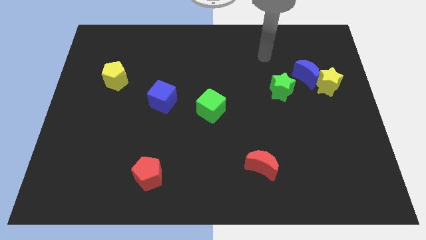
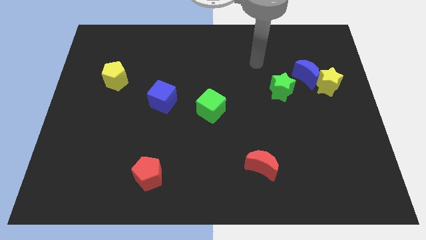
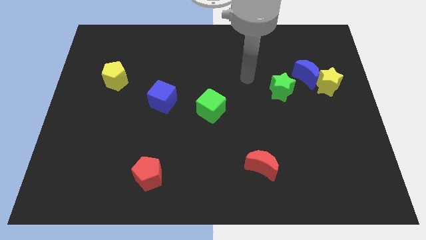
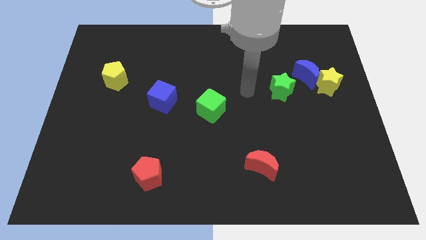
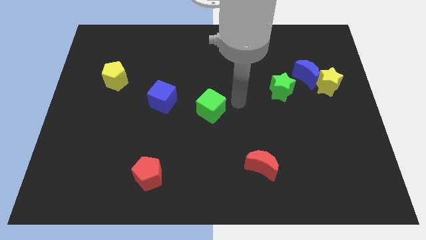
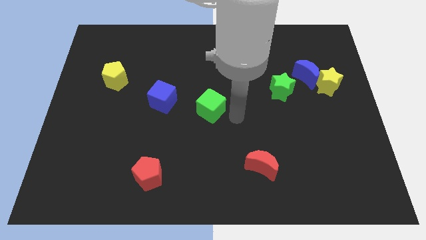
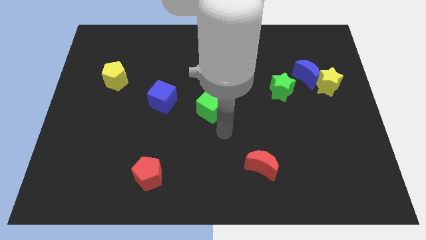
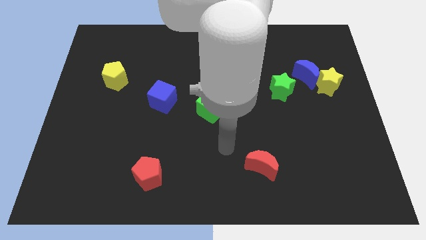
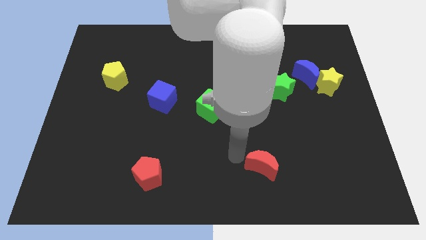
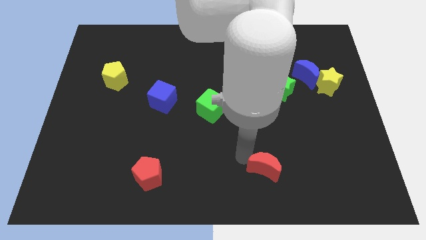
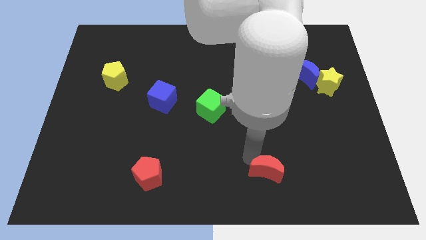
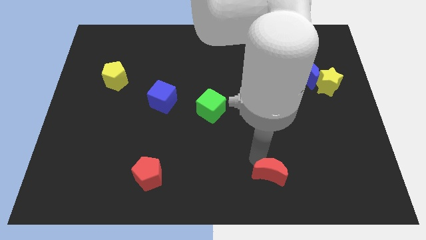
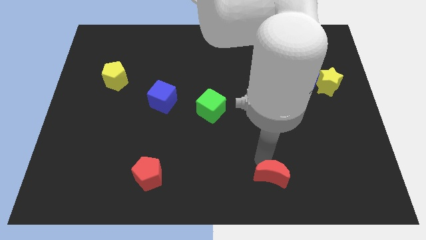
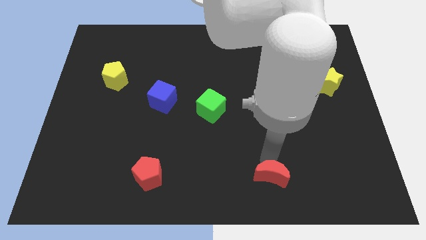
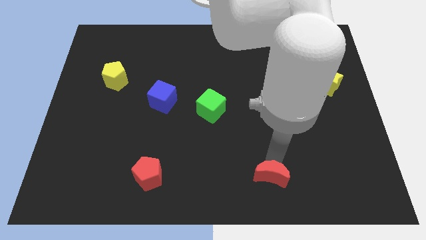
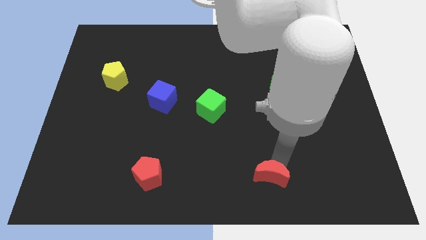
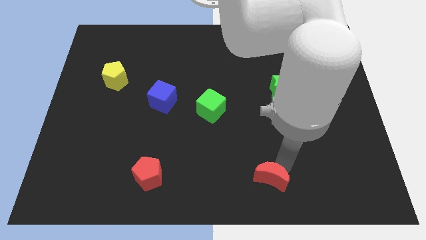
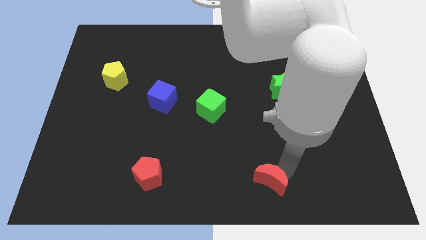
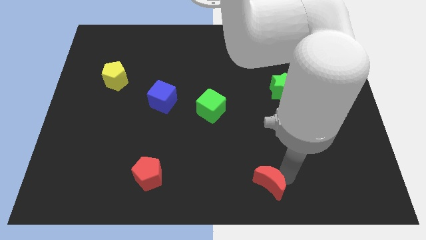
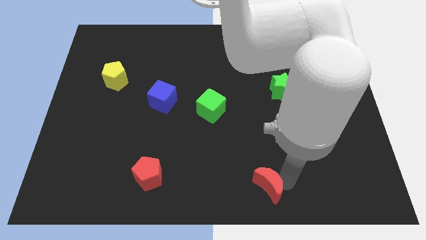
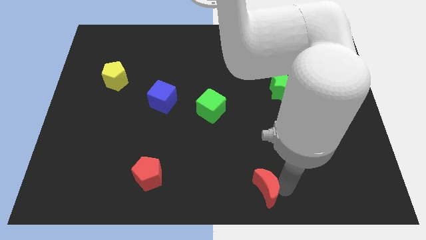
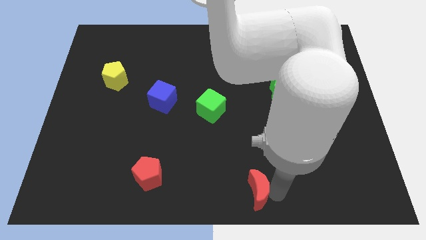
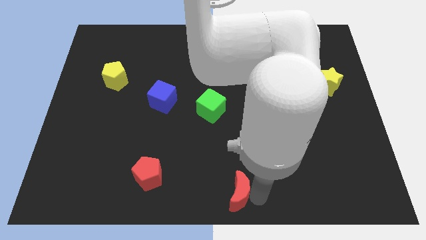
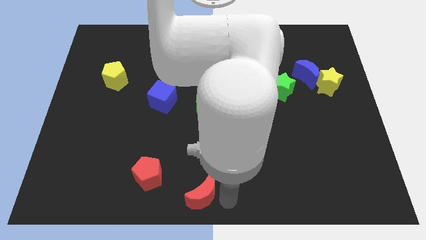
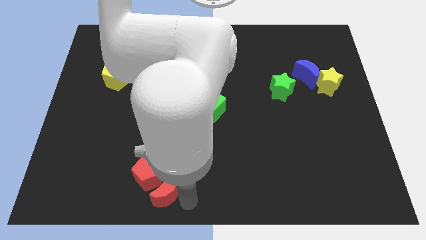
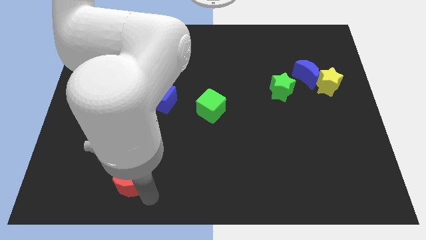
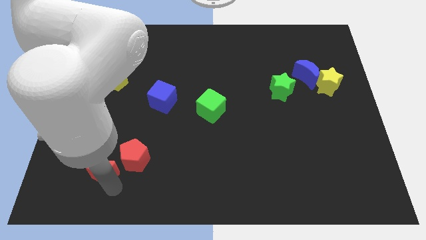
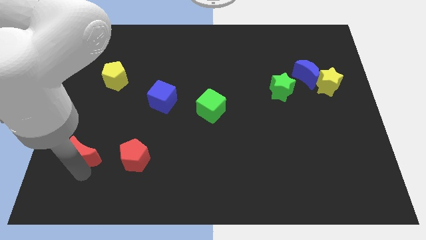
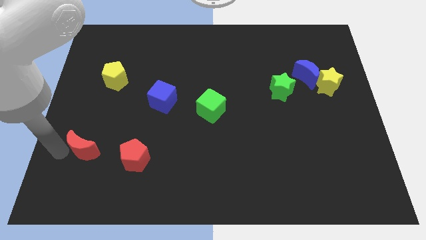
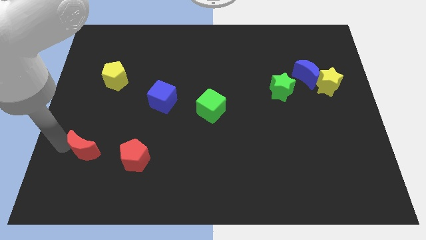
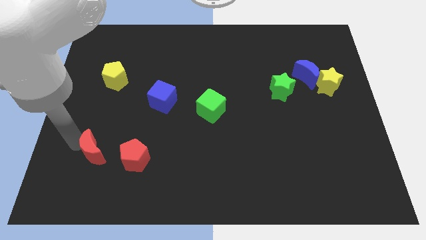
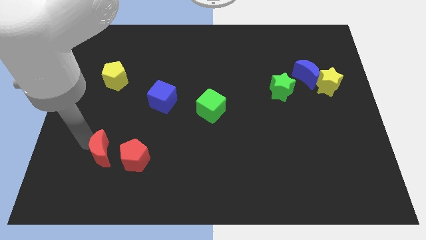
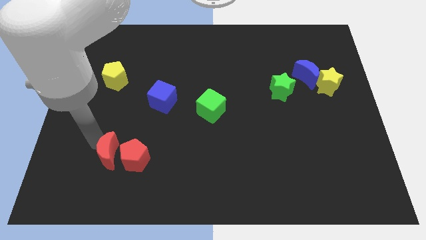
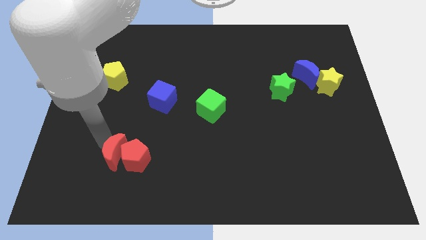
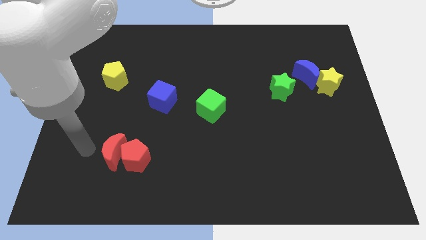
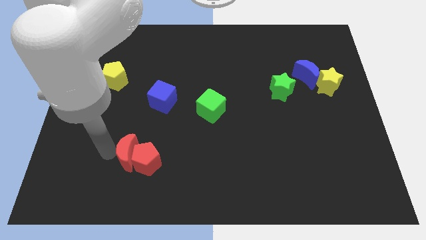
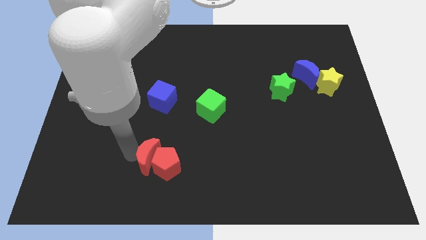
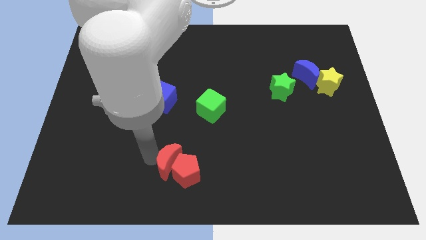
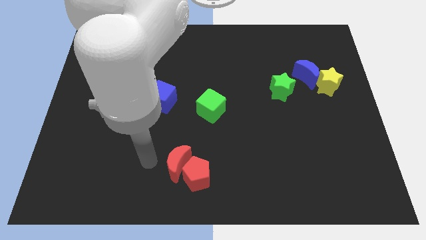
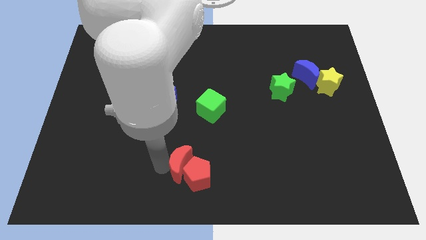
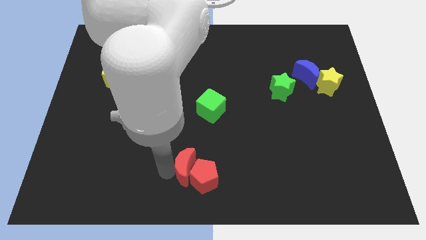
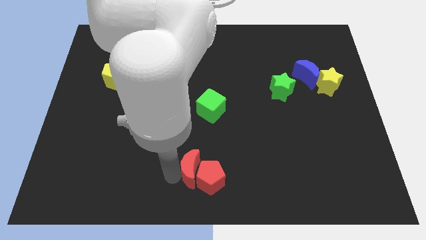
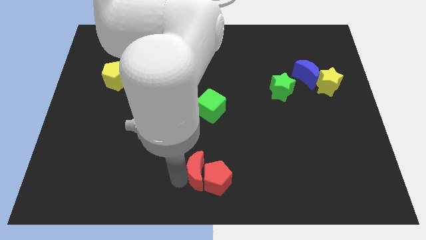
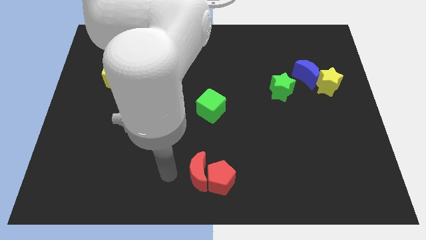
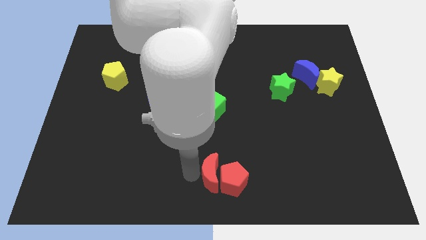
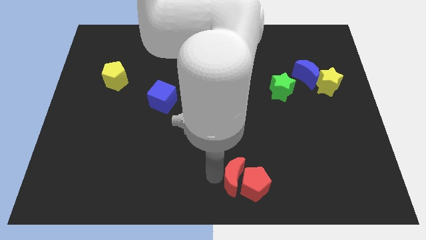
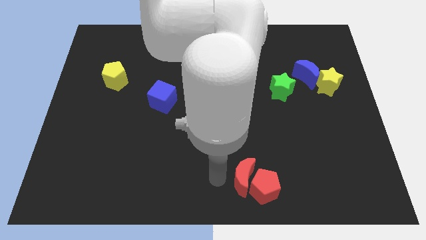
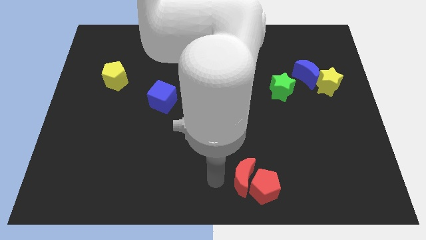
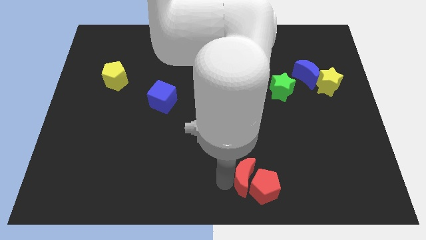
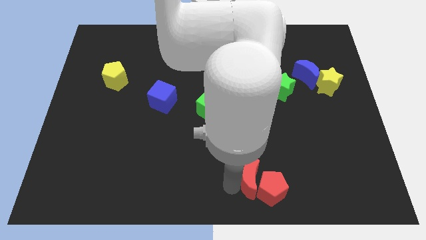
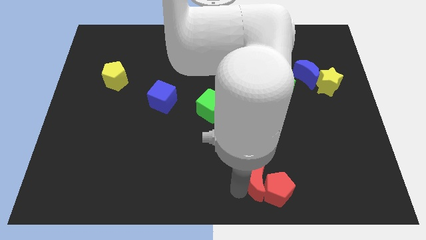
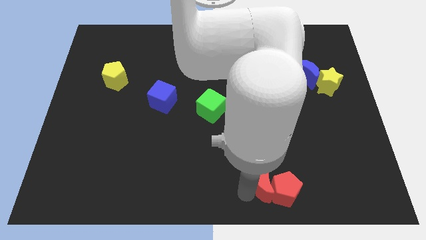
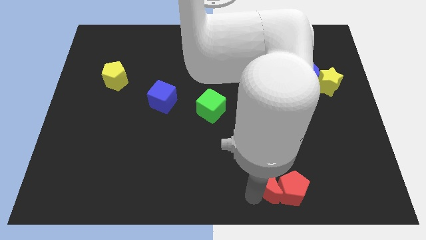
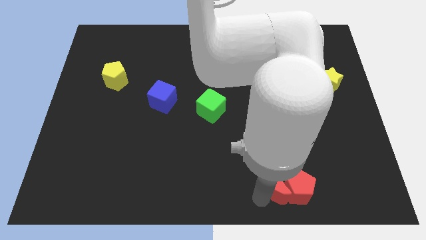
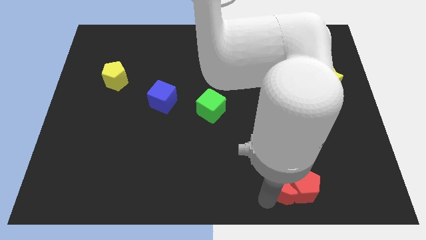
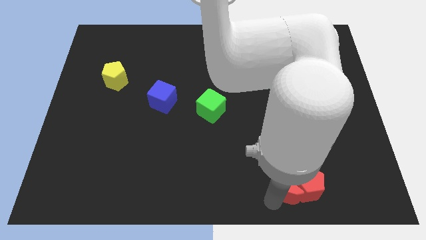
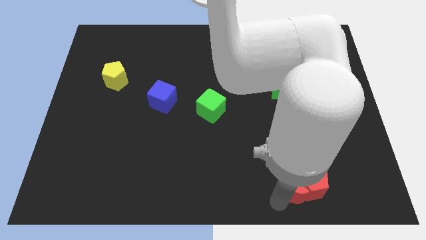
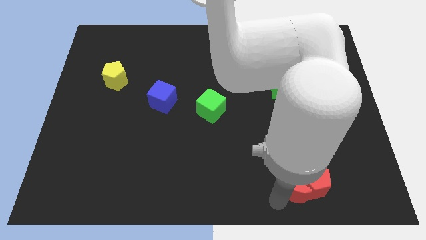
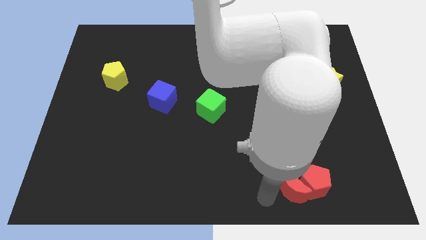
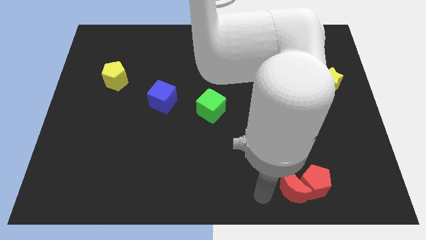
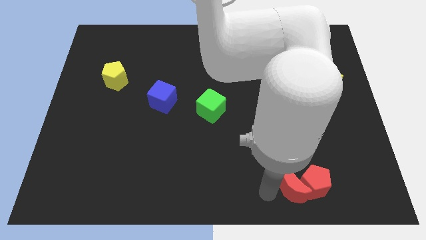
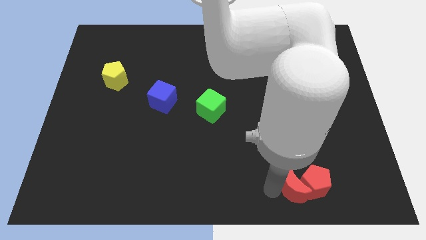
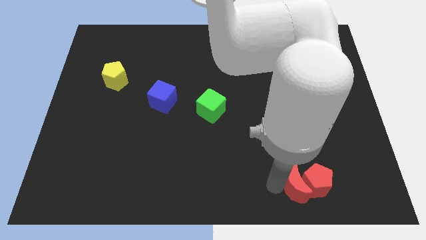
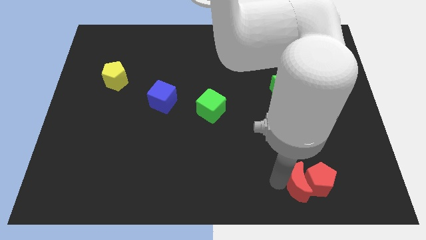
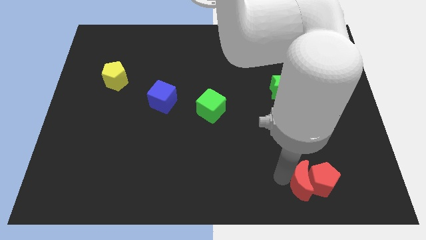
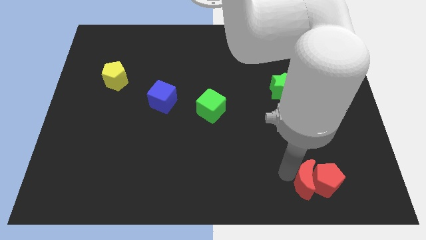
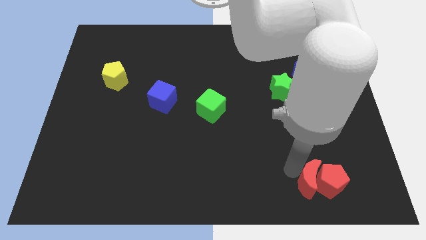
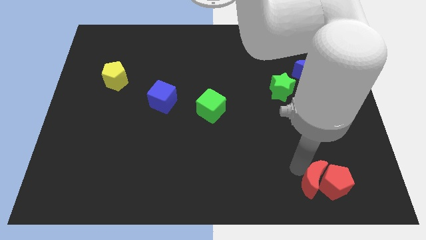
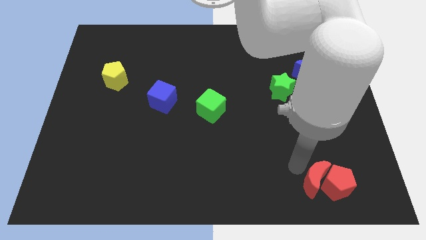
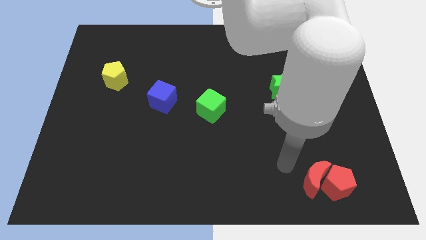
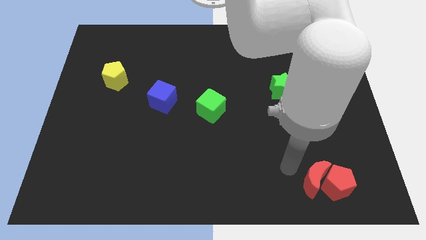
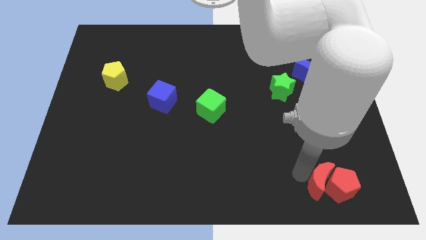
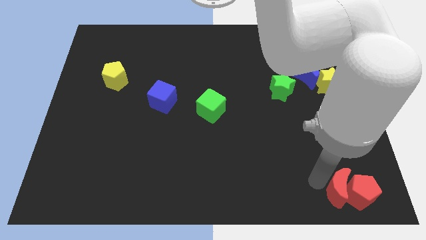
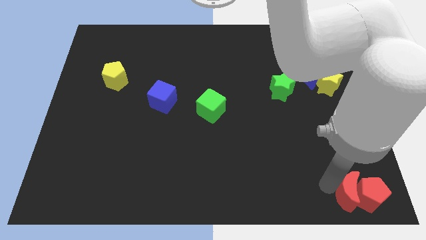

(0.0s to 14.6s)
put the red moon to the lower right corner
